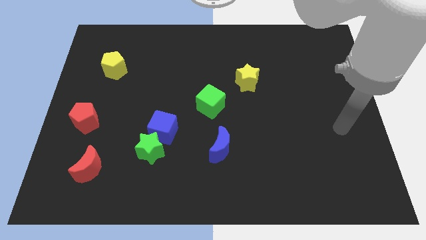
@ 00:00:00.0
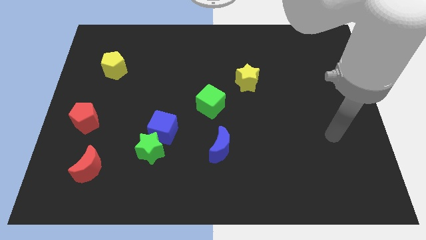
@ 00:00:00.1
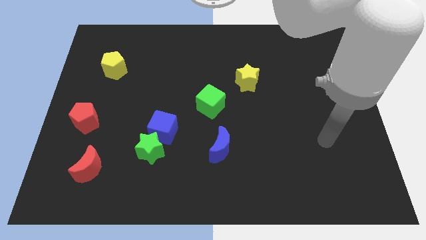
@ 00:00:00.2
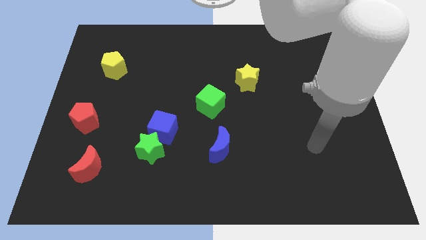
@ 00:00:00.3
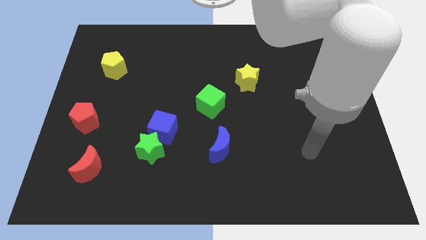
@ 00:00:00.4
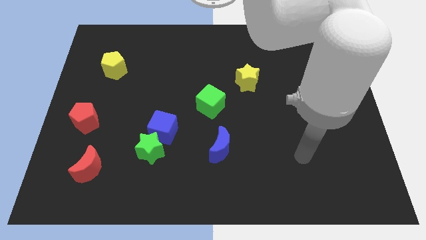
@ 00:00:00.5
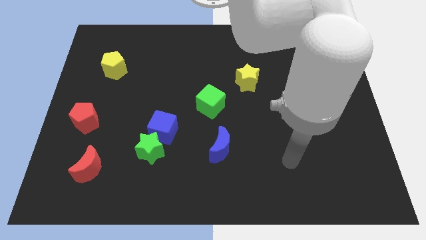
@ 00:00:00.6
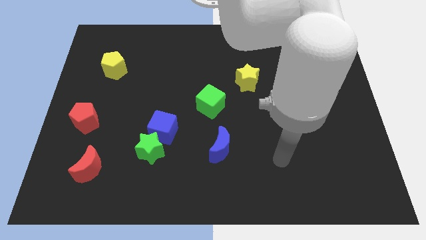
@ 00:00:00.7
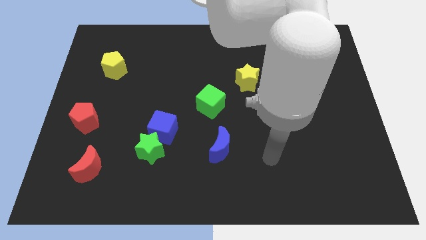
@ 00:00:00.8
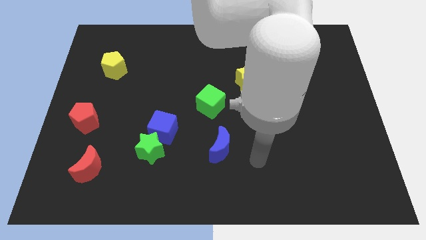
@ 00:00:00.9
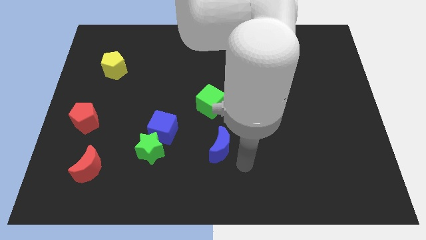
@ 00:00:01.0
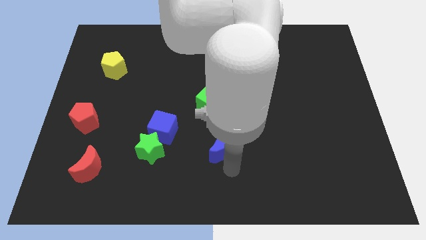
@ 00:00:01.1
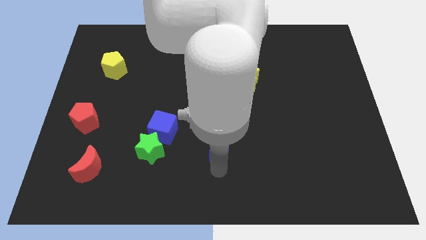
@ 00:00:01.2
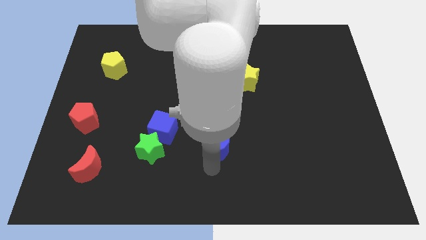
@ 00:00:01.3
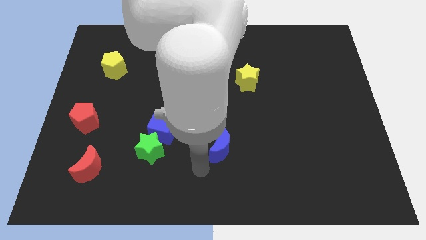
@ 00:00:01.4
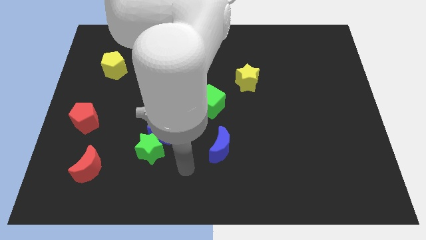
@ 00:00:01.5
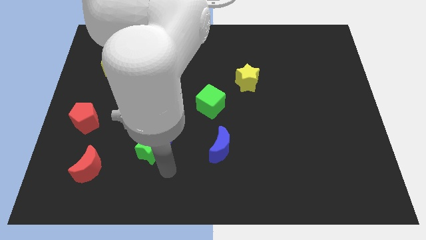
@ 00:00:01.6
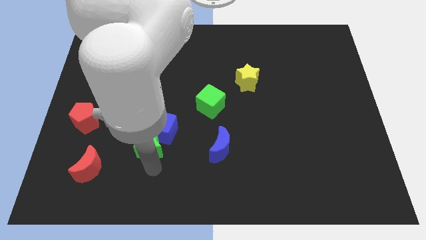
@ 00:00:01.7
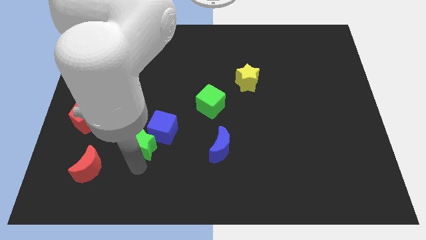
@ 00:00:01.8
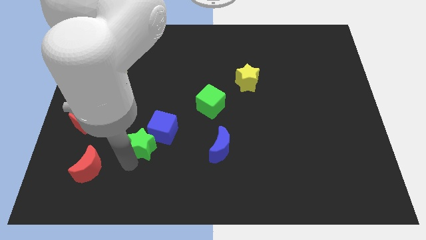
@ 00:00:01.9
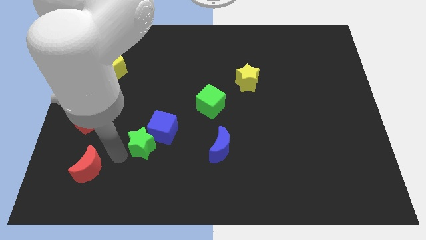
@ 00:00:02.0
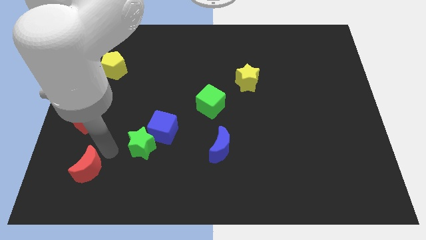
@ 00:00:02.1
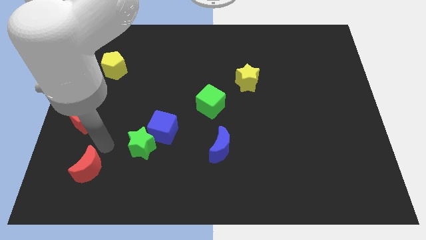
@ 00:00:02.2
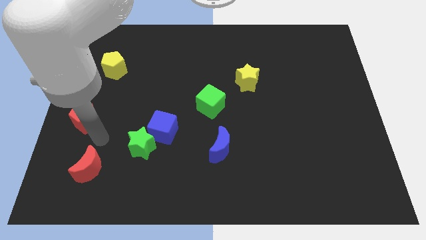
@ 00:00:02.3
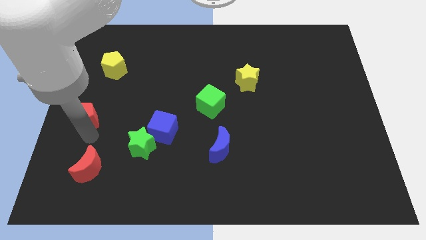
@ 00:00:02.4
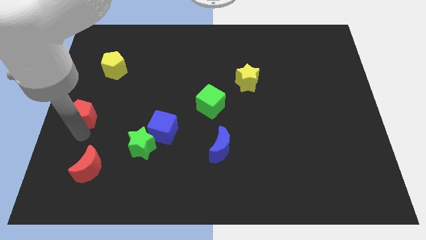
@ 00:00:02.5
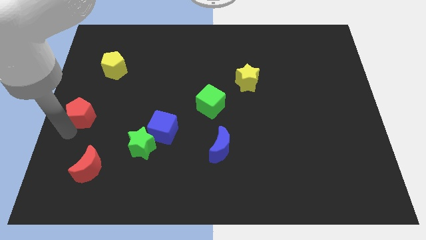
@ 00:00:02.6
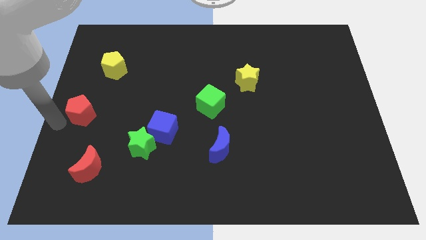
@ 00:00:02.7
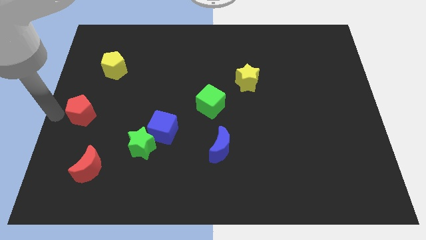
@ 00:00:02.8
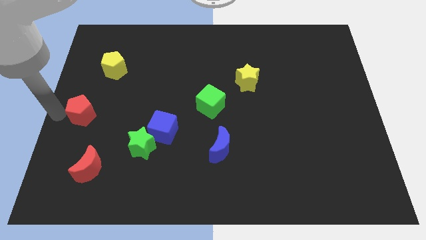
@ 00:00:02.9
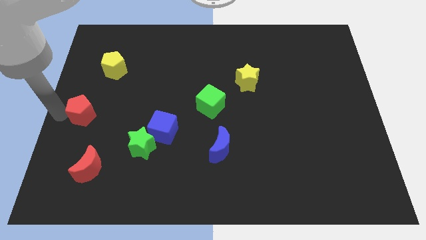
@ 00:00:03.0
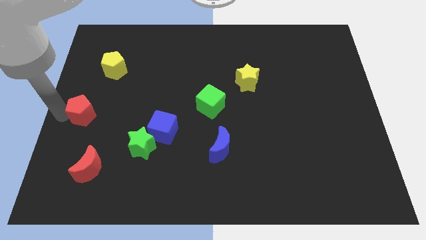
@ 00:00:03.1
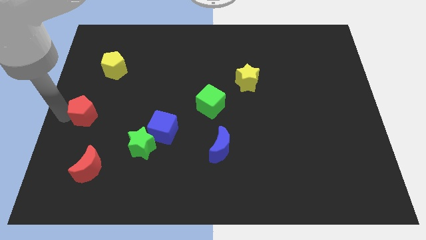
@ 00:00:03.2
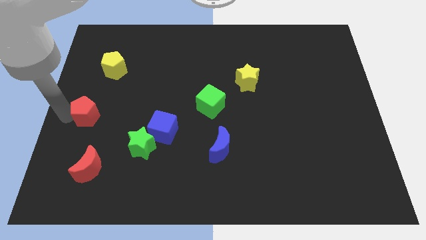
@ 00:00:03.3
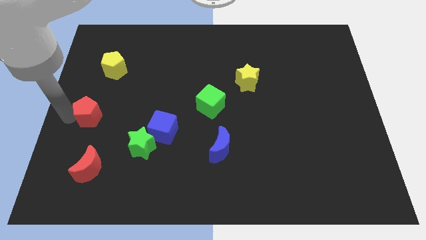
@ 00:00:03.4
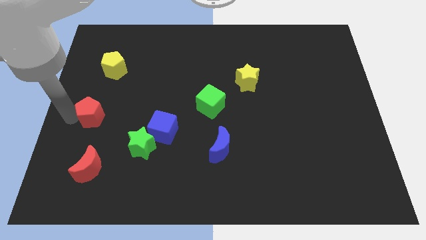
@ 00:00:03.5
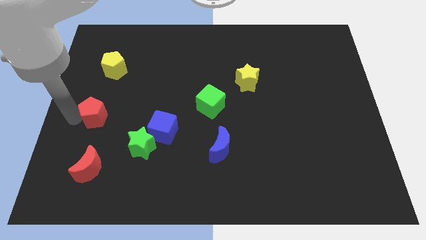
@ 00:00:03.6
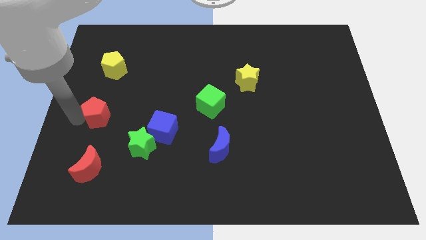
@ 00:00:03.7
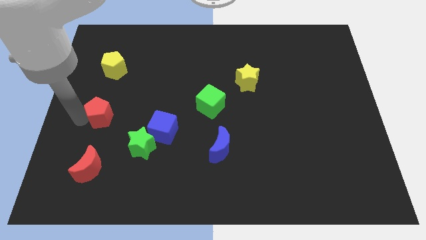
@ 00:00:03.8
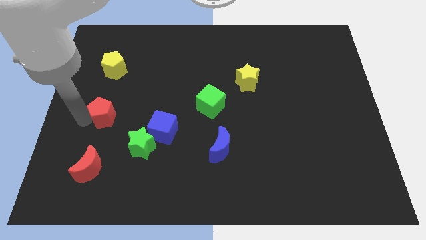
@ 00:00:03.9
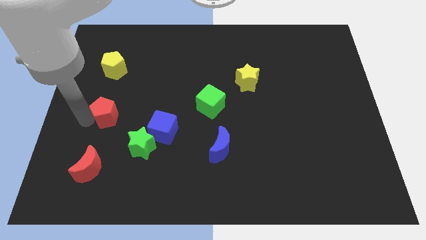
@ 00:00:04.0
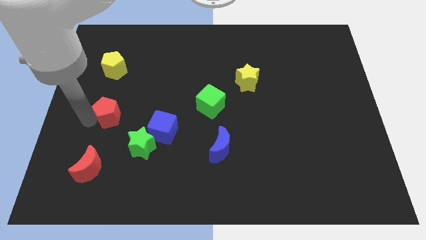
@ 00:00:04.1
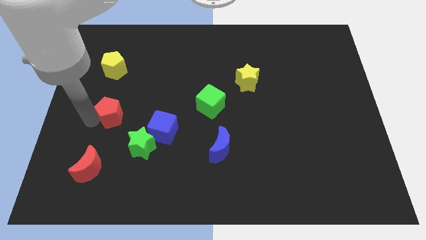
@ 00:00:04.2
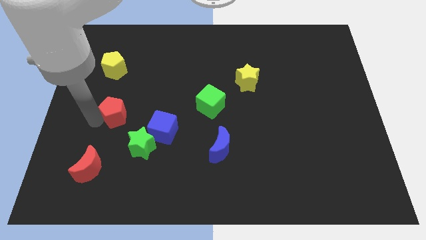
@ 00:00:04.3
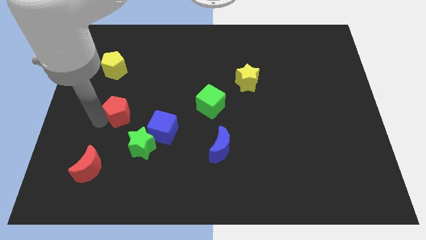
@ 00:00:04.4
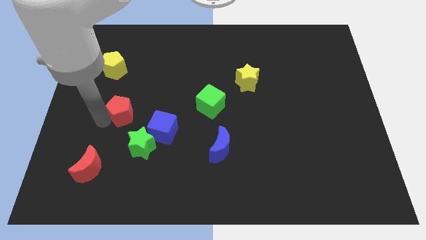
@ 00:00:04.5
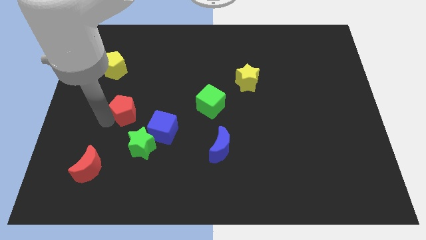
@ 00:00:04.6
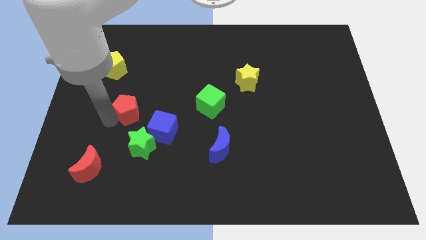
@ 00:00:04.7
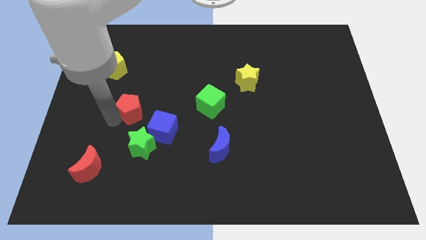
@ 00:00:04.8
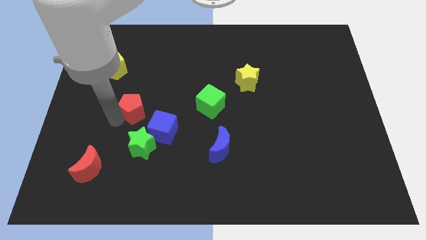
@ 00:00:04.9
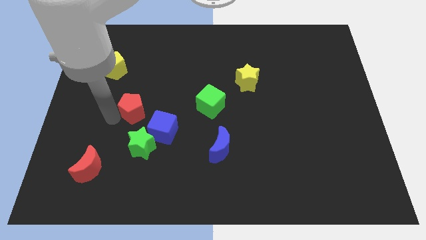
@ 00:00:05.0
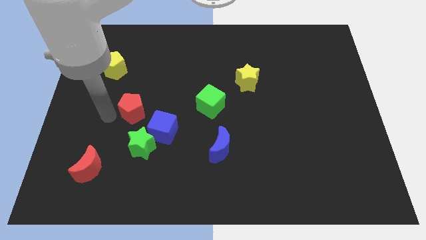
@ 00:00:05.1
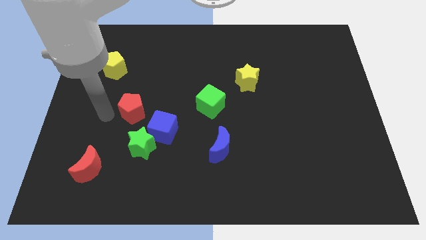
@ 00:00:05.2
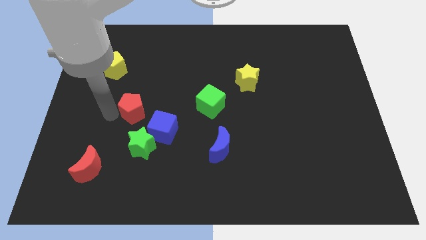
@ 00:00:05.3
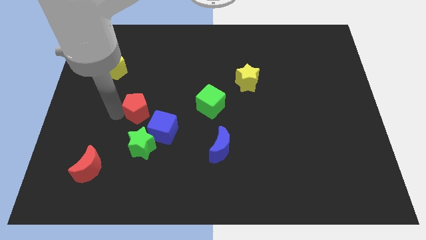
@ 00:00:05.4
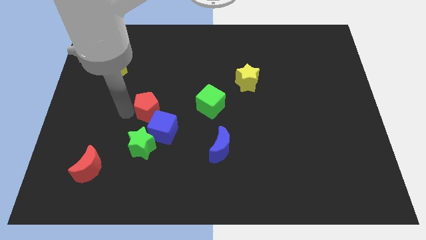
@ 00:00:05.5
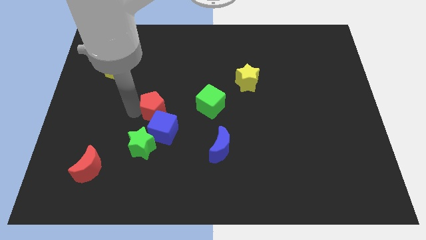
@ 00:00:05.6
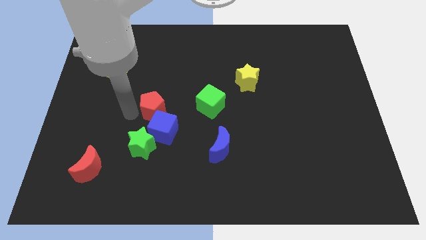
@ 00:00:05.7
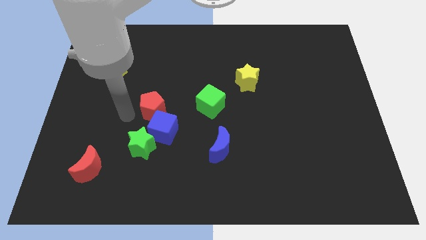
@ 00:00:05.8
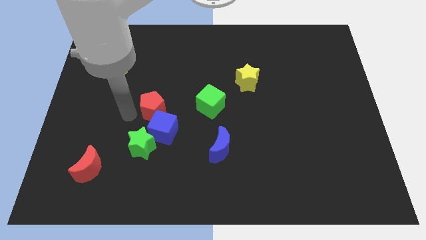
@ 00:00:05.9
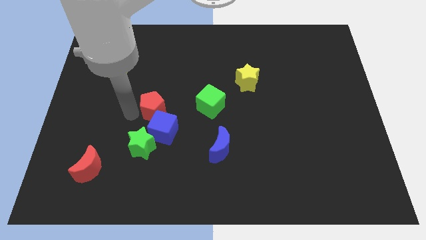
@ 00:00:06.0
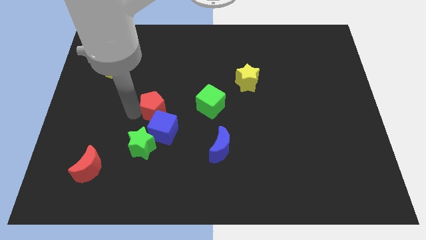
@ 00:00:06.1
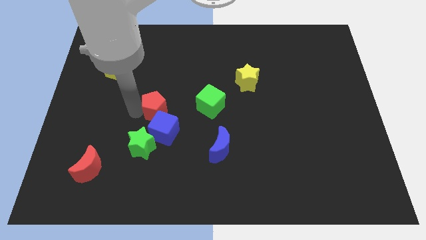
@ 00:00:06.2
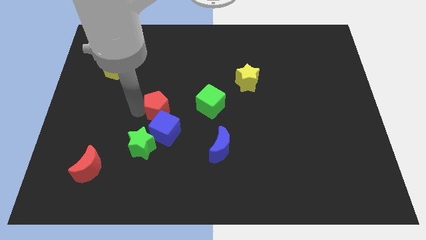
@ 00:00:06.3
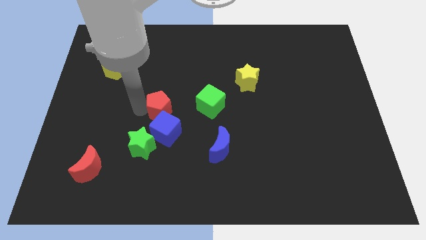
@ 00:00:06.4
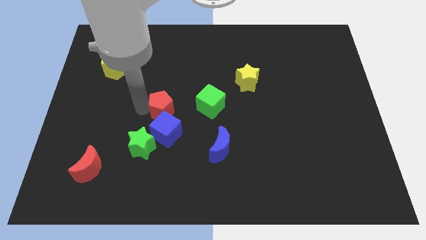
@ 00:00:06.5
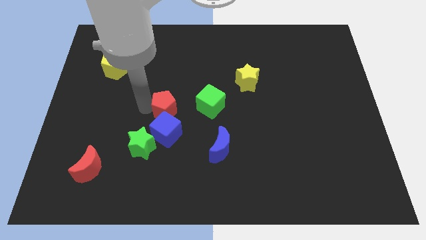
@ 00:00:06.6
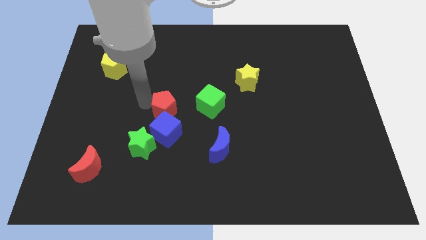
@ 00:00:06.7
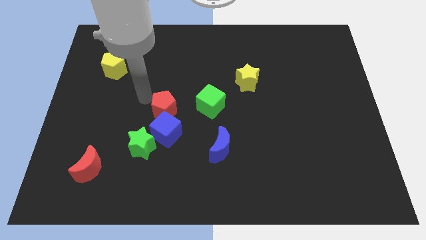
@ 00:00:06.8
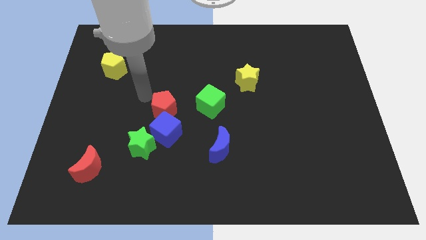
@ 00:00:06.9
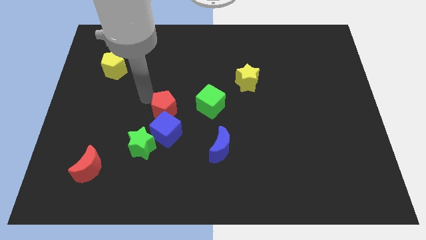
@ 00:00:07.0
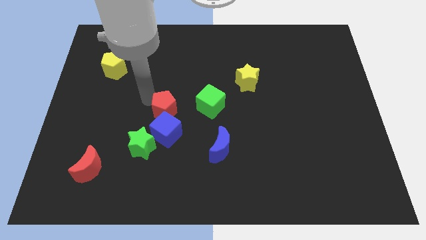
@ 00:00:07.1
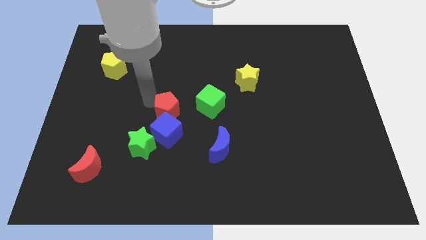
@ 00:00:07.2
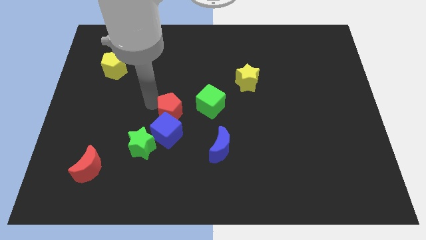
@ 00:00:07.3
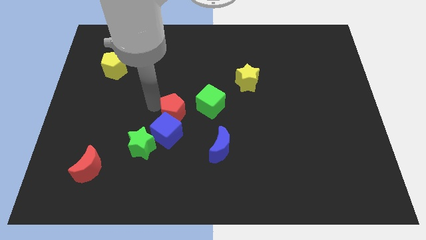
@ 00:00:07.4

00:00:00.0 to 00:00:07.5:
put the red pentagon diagonally down and to the left of the green cube

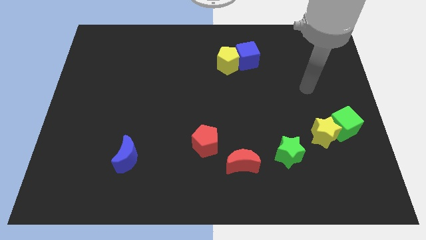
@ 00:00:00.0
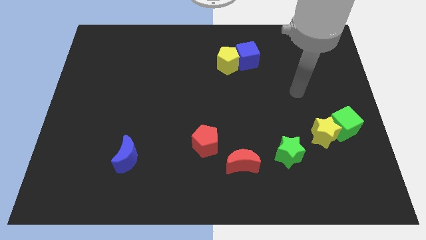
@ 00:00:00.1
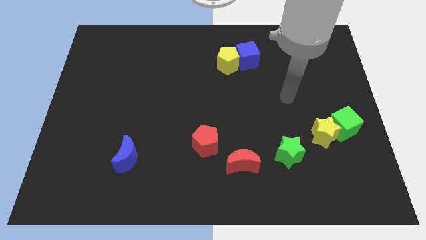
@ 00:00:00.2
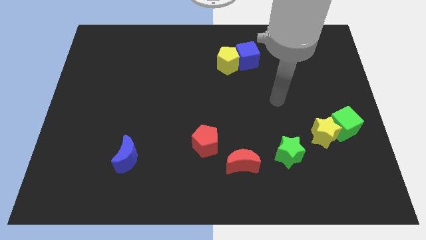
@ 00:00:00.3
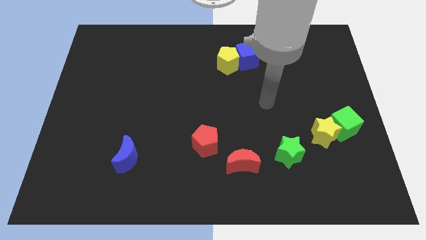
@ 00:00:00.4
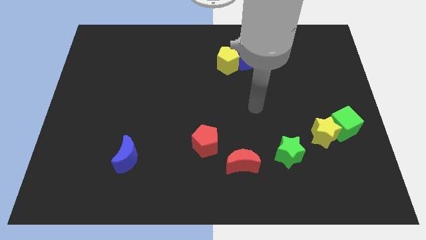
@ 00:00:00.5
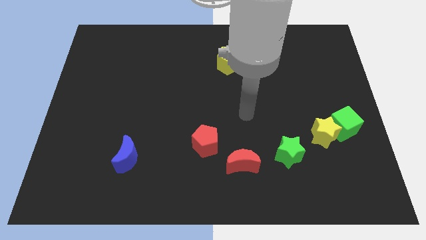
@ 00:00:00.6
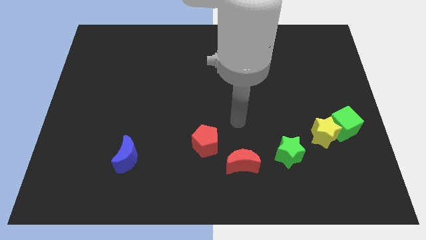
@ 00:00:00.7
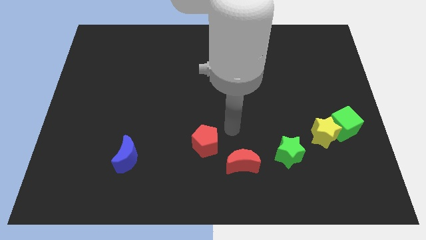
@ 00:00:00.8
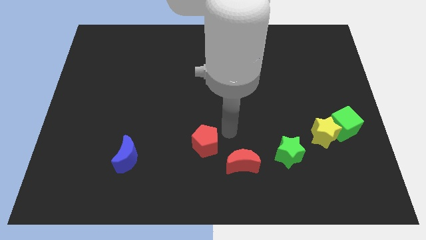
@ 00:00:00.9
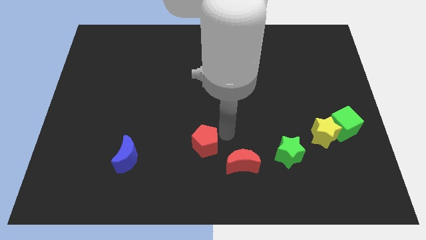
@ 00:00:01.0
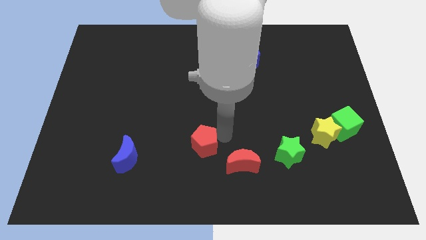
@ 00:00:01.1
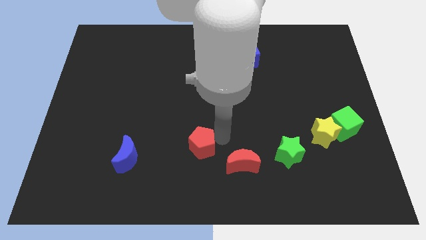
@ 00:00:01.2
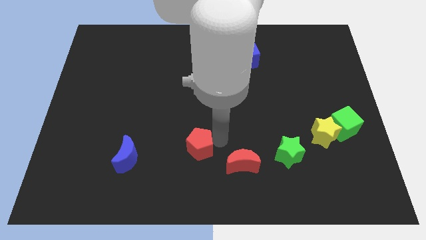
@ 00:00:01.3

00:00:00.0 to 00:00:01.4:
move the red pentagon to the right side of the blue moon
